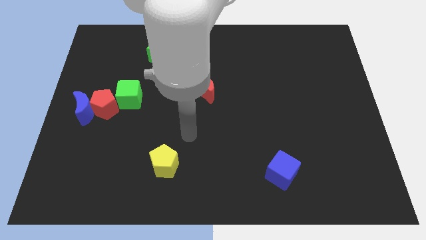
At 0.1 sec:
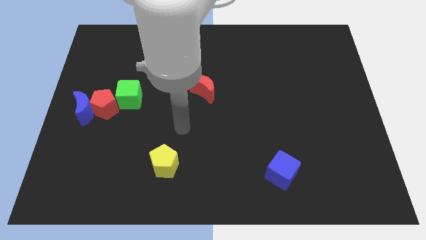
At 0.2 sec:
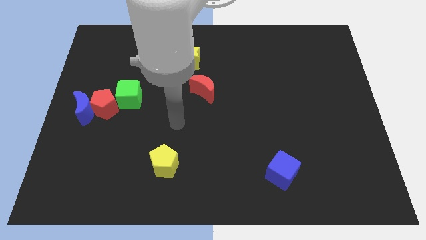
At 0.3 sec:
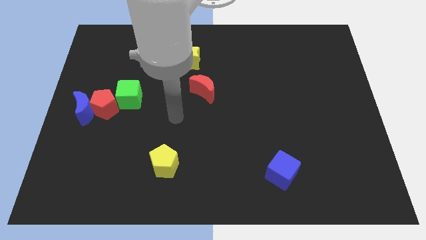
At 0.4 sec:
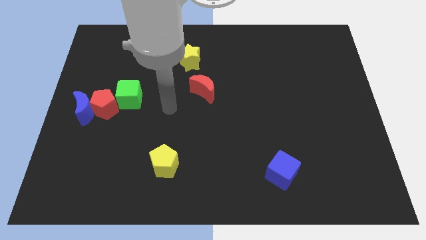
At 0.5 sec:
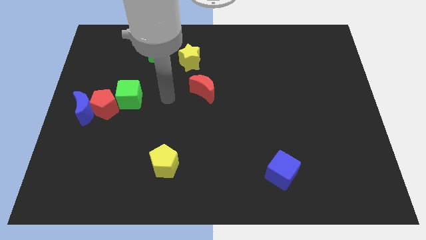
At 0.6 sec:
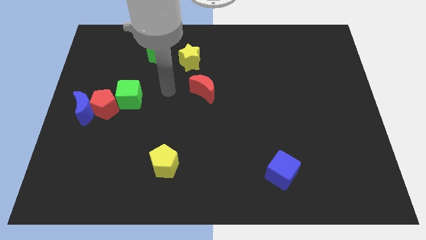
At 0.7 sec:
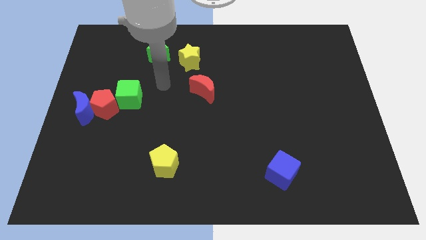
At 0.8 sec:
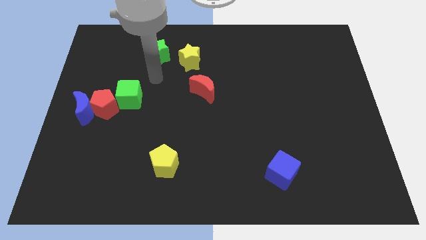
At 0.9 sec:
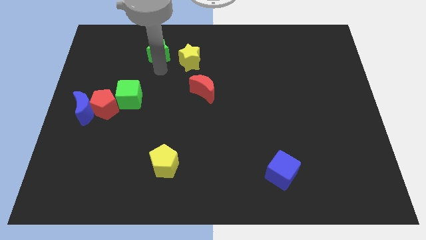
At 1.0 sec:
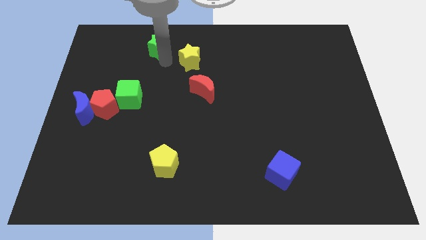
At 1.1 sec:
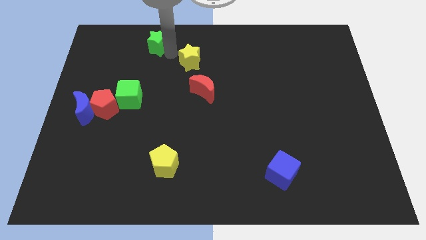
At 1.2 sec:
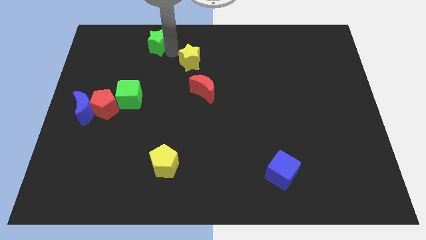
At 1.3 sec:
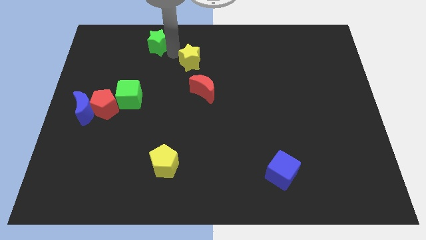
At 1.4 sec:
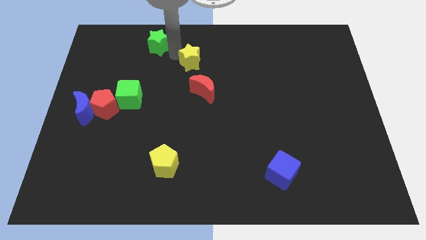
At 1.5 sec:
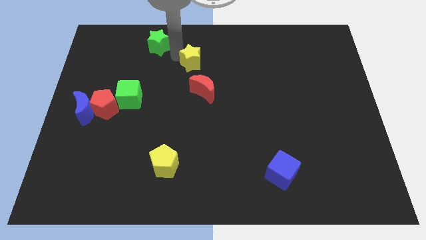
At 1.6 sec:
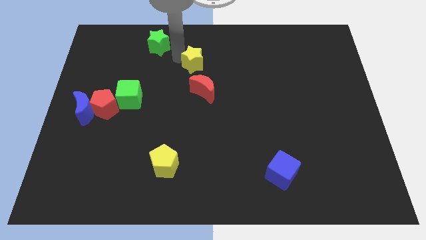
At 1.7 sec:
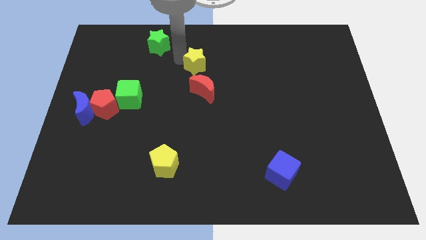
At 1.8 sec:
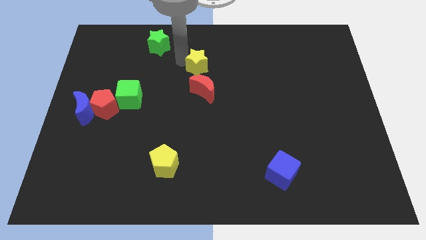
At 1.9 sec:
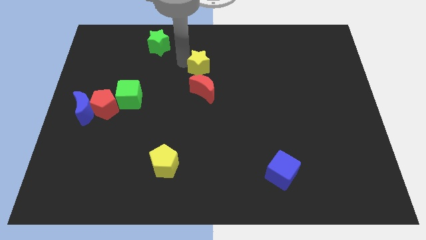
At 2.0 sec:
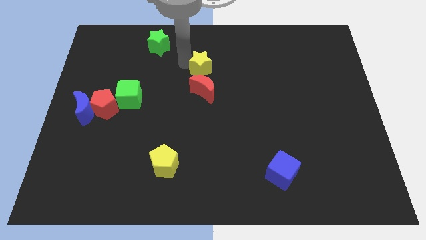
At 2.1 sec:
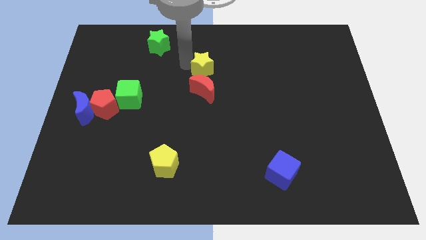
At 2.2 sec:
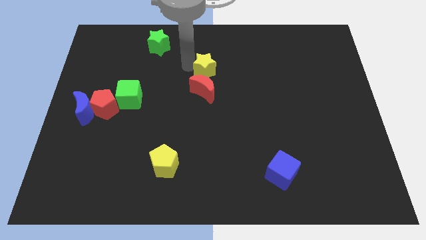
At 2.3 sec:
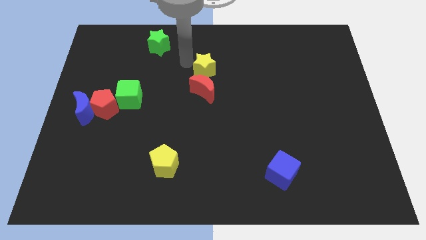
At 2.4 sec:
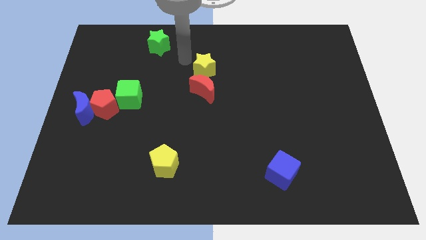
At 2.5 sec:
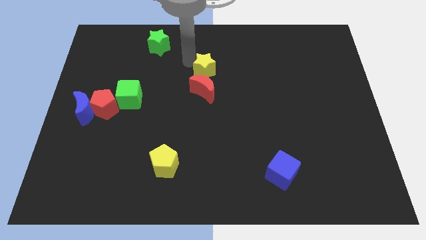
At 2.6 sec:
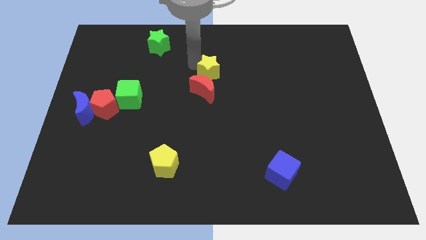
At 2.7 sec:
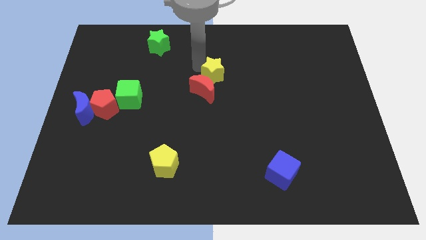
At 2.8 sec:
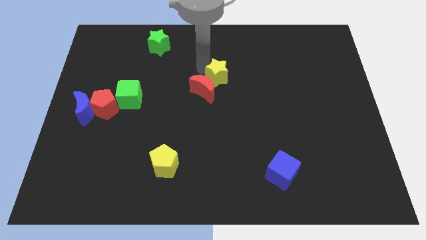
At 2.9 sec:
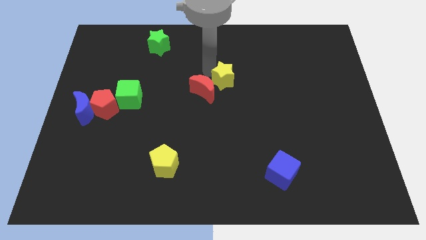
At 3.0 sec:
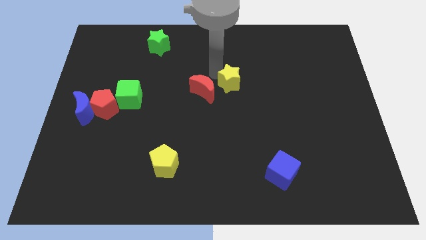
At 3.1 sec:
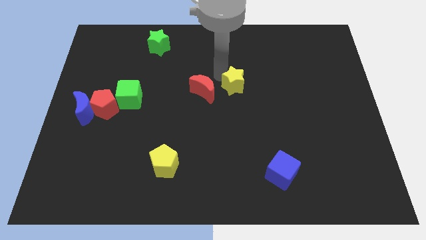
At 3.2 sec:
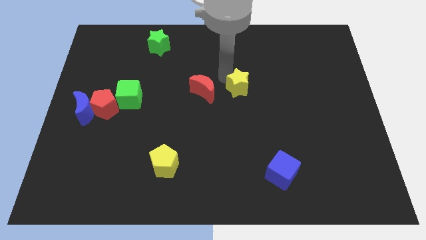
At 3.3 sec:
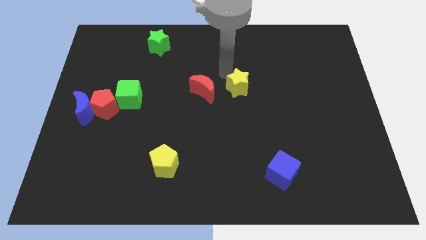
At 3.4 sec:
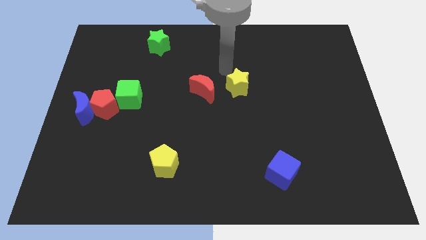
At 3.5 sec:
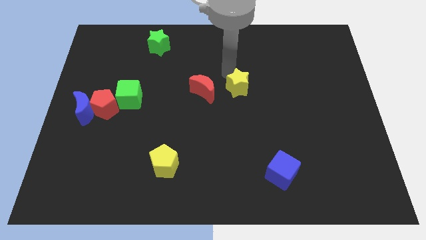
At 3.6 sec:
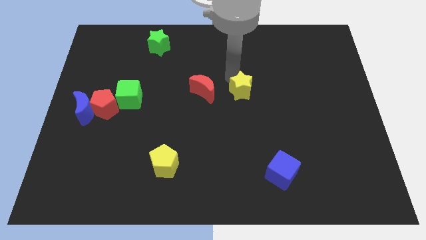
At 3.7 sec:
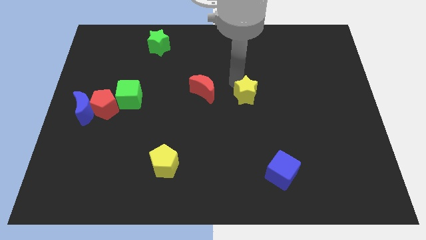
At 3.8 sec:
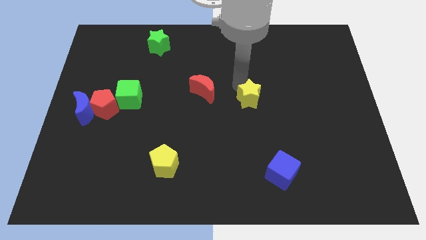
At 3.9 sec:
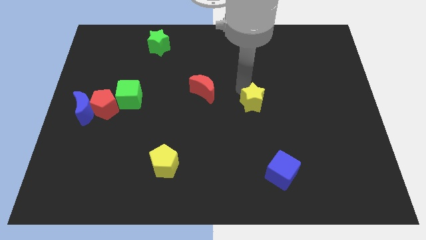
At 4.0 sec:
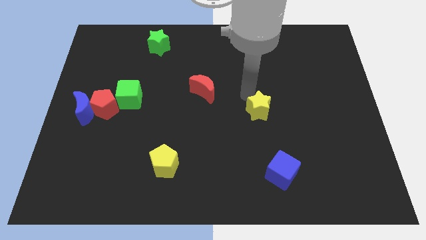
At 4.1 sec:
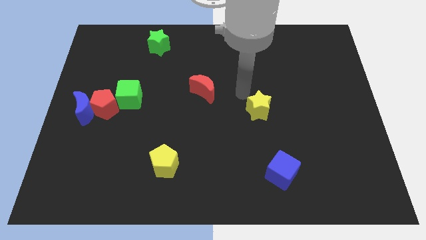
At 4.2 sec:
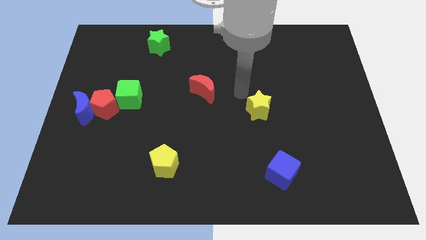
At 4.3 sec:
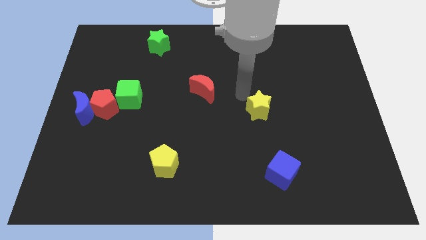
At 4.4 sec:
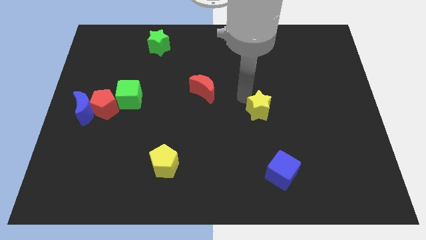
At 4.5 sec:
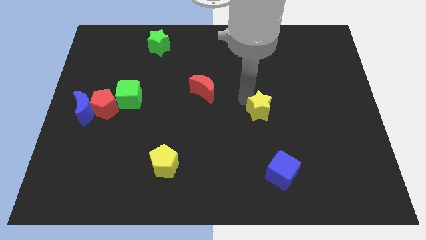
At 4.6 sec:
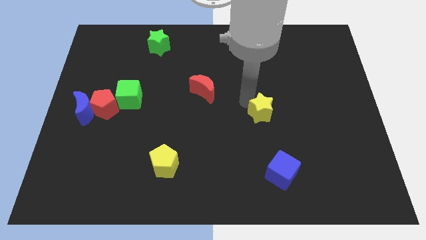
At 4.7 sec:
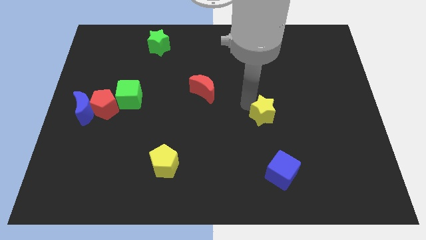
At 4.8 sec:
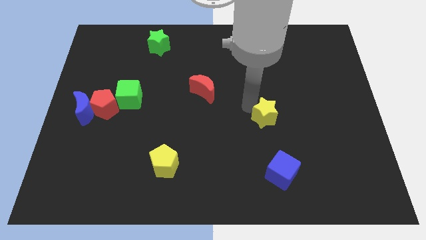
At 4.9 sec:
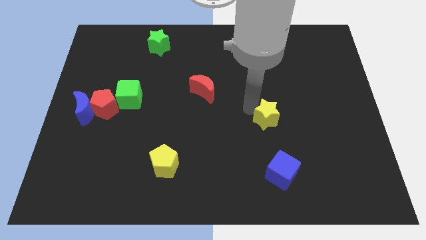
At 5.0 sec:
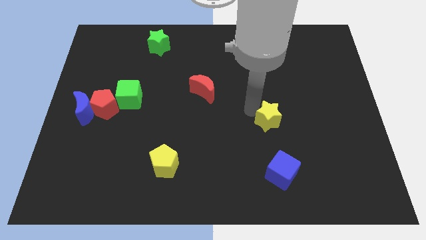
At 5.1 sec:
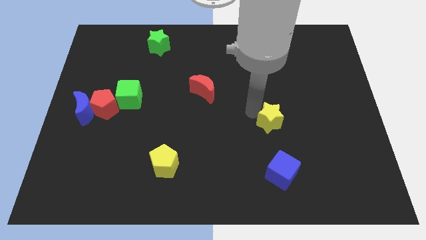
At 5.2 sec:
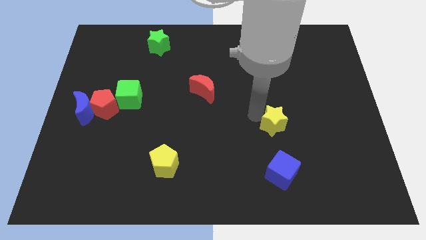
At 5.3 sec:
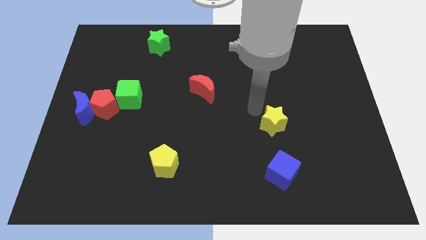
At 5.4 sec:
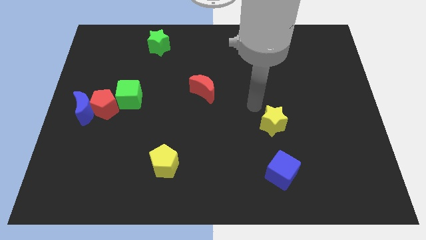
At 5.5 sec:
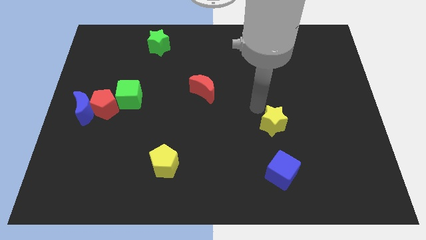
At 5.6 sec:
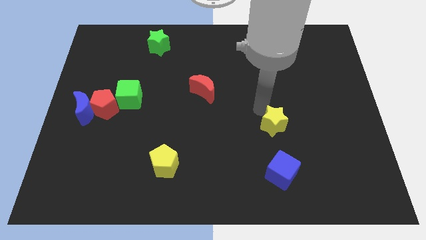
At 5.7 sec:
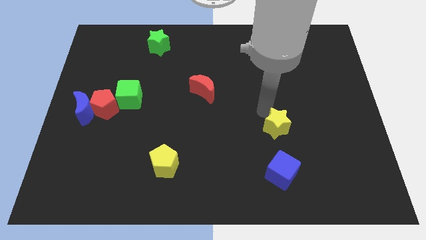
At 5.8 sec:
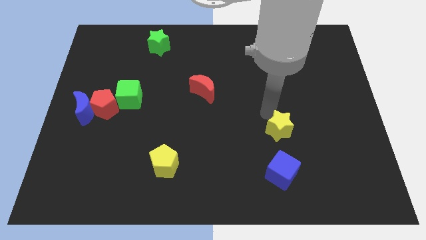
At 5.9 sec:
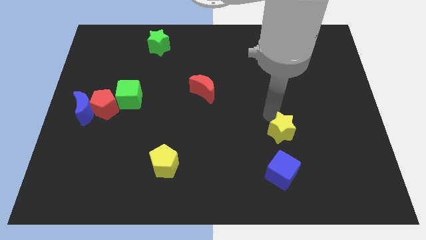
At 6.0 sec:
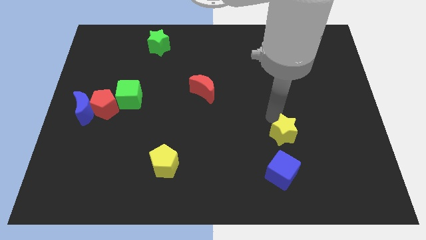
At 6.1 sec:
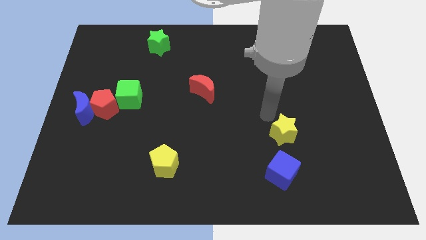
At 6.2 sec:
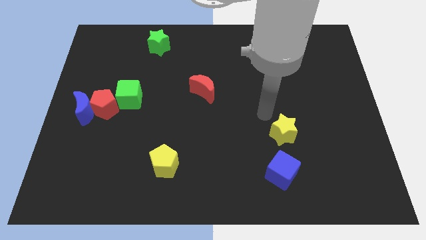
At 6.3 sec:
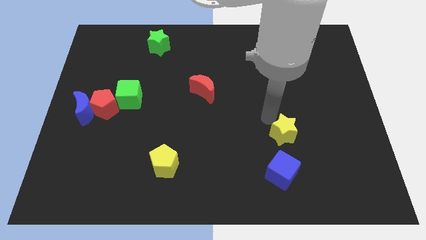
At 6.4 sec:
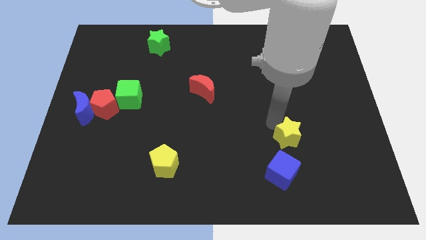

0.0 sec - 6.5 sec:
push the yellow star to the top right of the blue cube

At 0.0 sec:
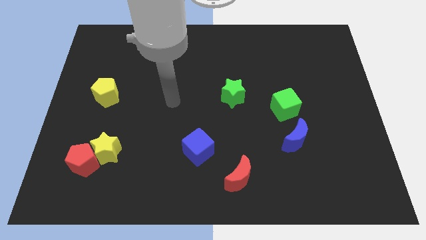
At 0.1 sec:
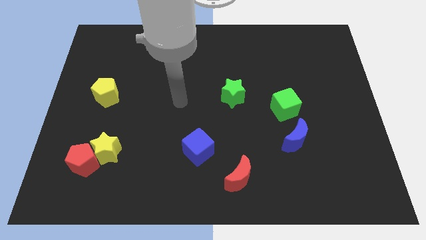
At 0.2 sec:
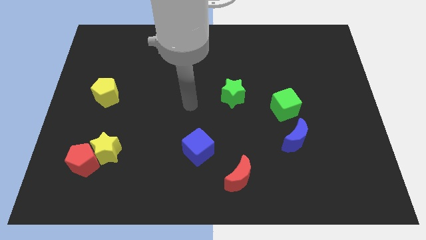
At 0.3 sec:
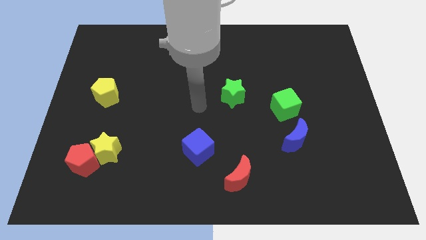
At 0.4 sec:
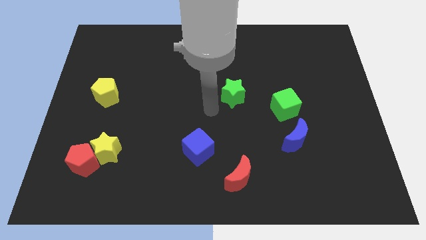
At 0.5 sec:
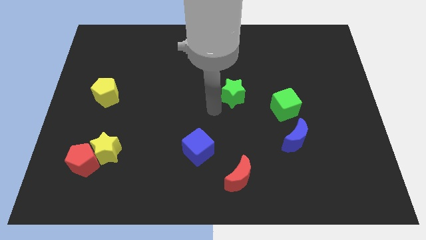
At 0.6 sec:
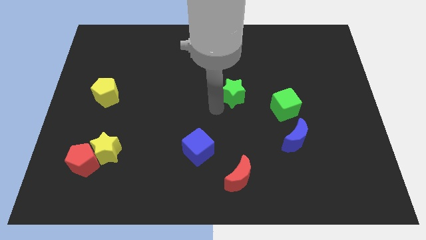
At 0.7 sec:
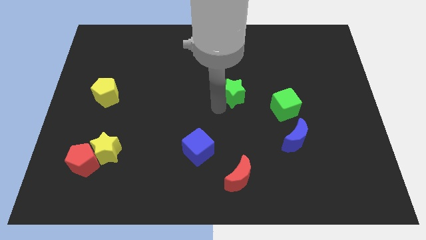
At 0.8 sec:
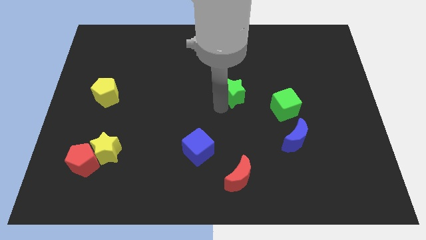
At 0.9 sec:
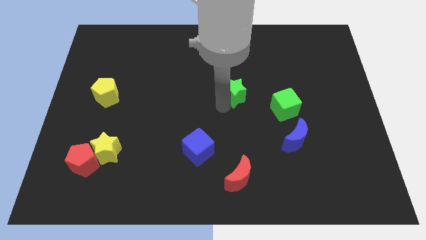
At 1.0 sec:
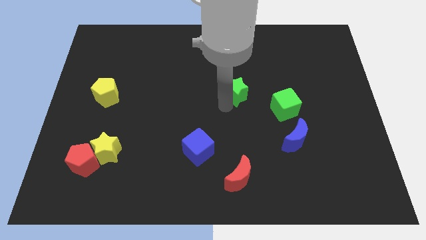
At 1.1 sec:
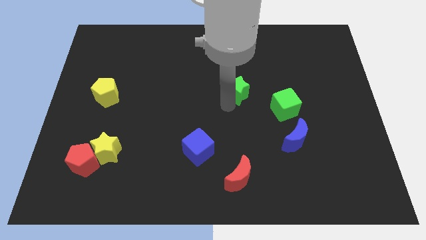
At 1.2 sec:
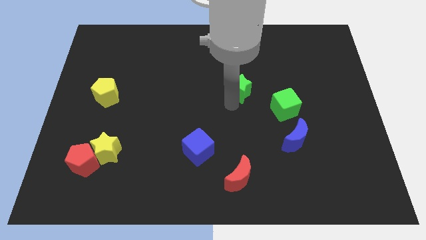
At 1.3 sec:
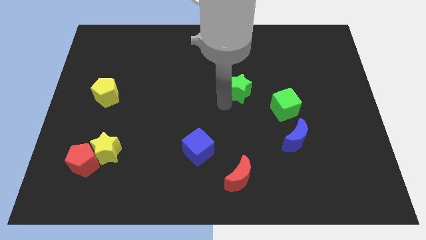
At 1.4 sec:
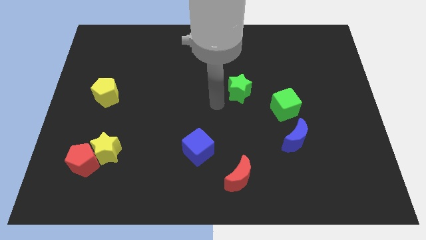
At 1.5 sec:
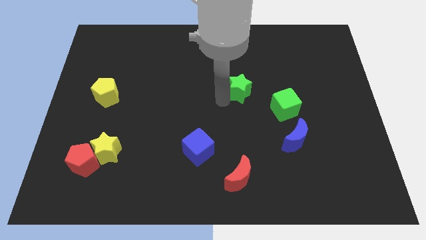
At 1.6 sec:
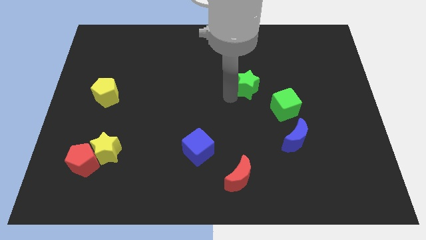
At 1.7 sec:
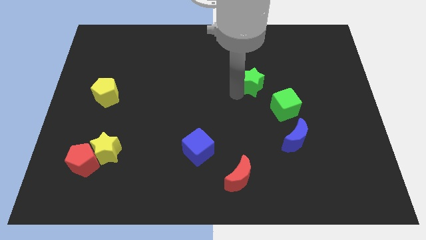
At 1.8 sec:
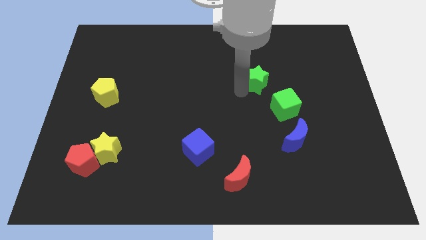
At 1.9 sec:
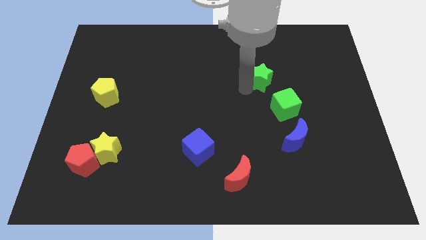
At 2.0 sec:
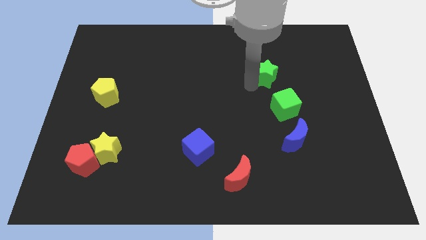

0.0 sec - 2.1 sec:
put the green star to the top side of the green cube
